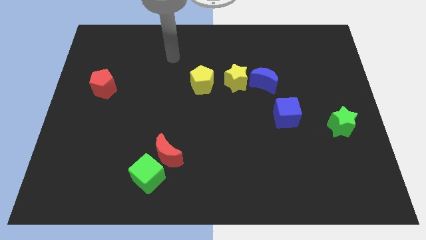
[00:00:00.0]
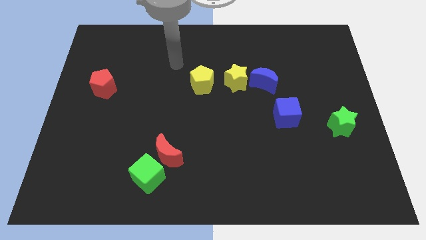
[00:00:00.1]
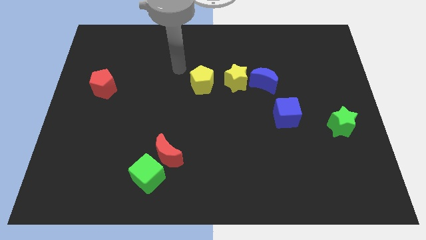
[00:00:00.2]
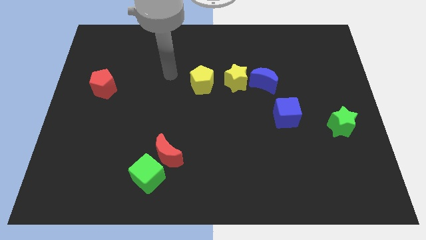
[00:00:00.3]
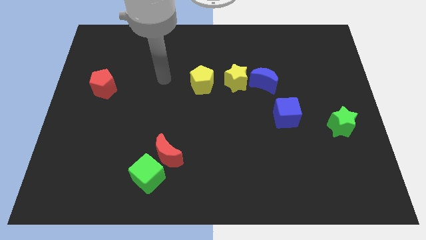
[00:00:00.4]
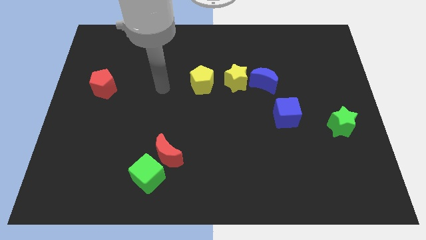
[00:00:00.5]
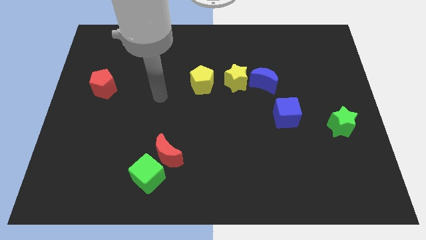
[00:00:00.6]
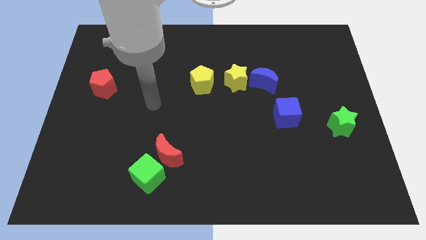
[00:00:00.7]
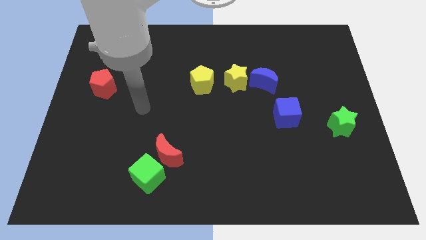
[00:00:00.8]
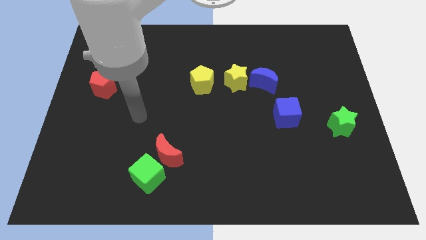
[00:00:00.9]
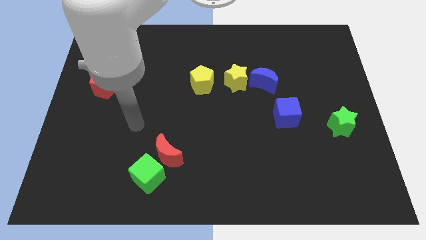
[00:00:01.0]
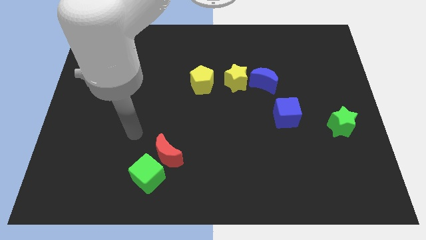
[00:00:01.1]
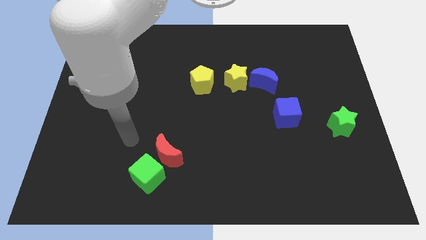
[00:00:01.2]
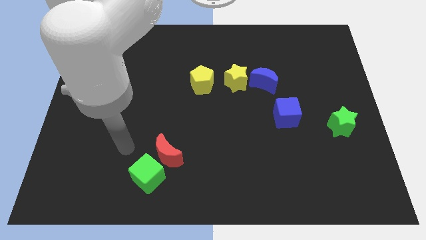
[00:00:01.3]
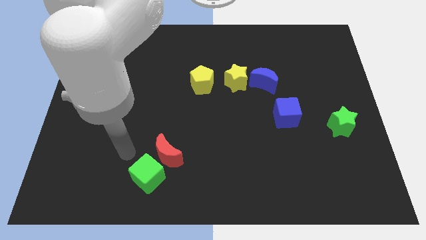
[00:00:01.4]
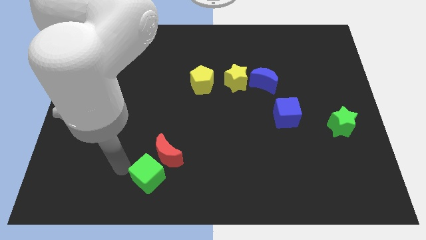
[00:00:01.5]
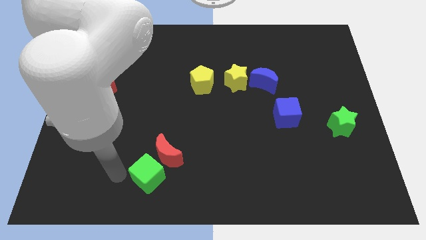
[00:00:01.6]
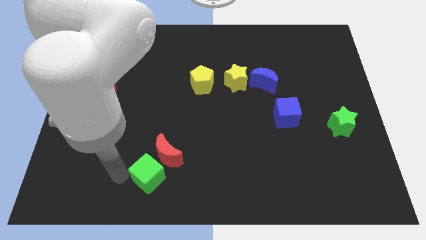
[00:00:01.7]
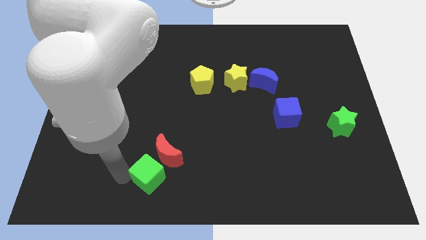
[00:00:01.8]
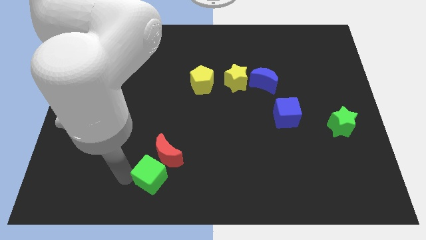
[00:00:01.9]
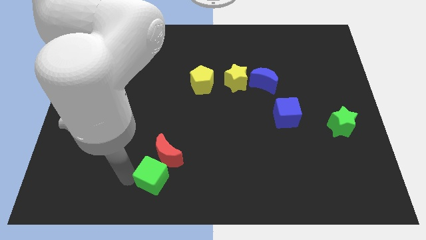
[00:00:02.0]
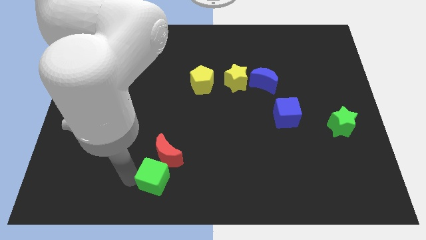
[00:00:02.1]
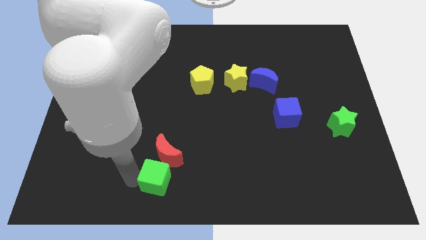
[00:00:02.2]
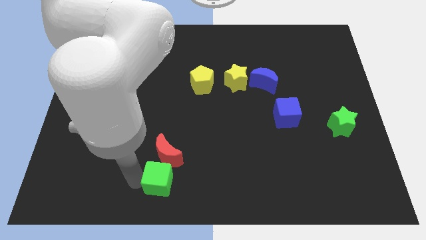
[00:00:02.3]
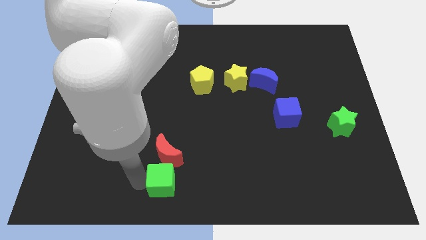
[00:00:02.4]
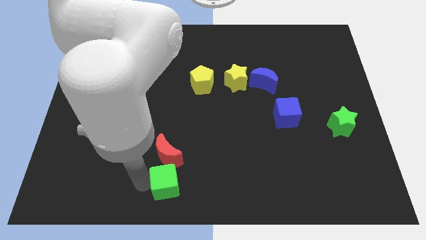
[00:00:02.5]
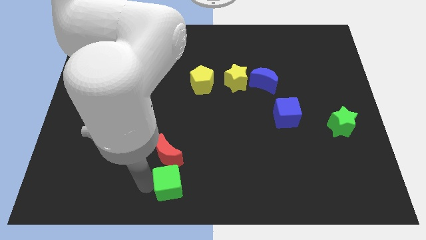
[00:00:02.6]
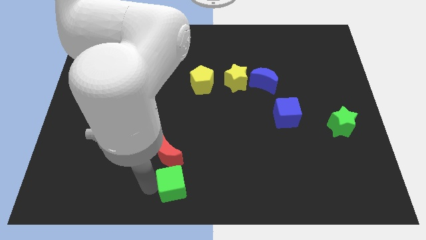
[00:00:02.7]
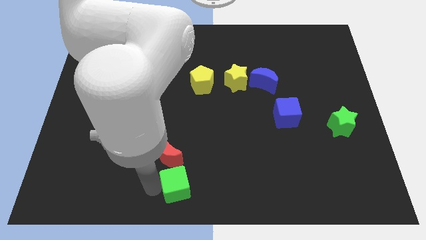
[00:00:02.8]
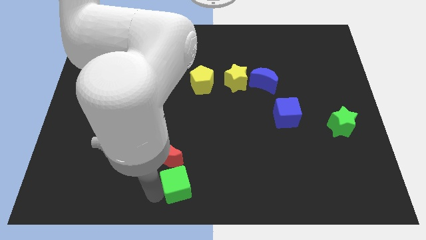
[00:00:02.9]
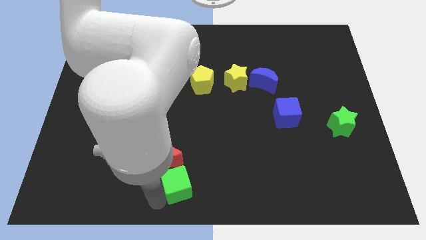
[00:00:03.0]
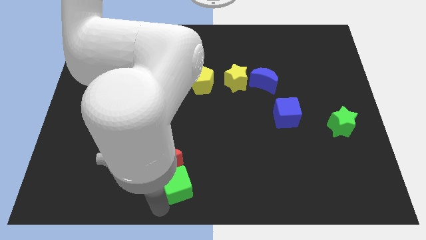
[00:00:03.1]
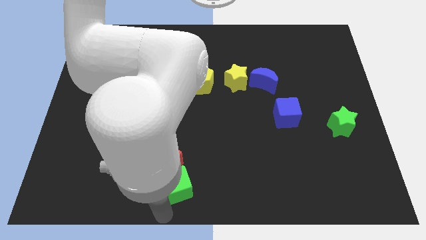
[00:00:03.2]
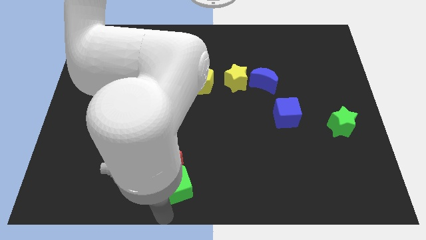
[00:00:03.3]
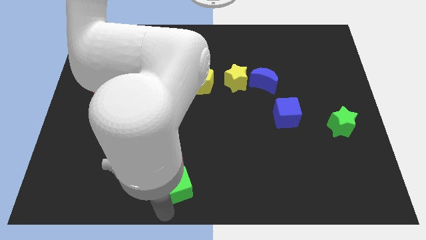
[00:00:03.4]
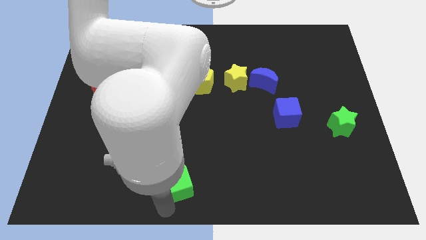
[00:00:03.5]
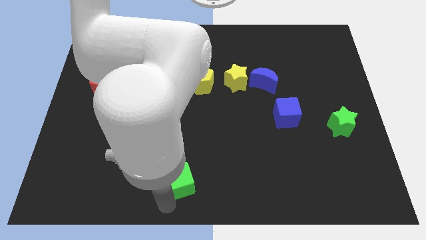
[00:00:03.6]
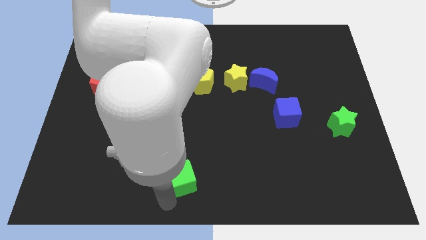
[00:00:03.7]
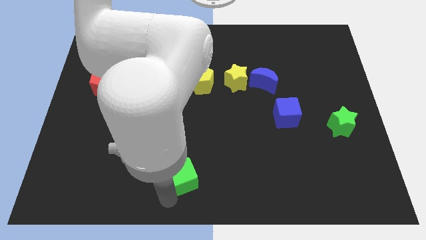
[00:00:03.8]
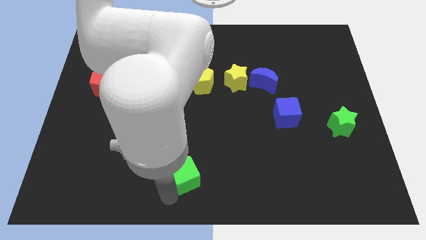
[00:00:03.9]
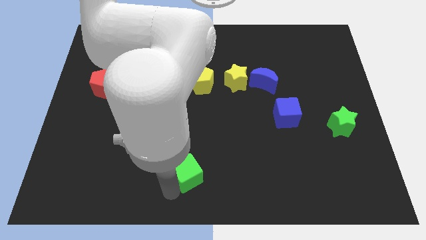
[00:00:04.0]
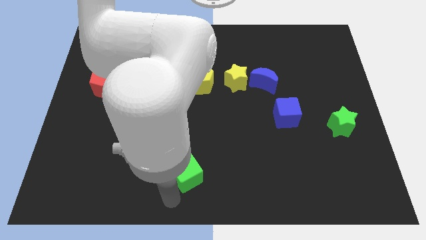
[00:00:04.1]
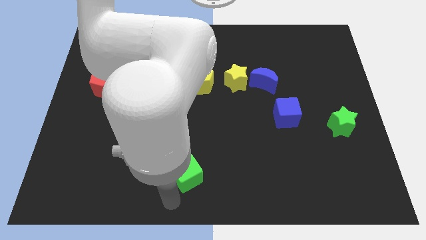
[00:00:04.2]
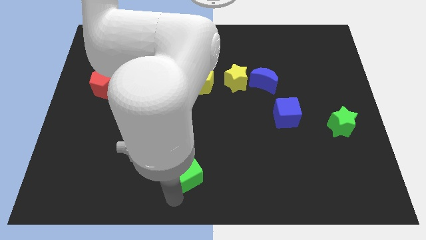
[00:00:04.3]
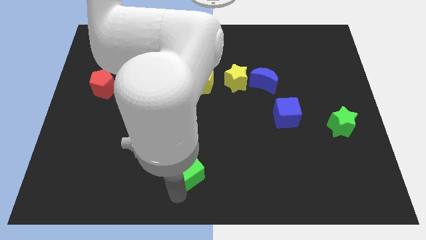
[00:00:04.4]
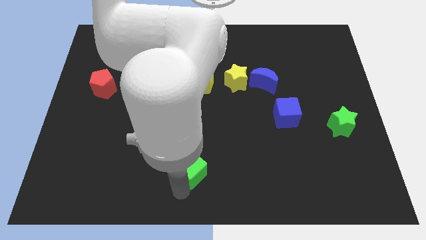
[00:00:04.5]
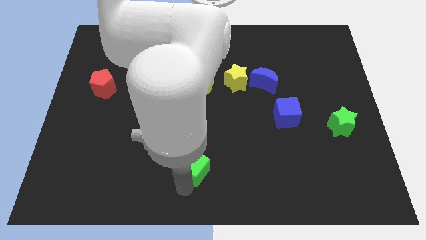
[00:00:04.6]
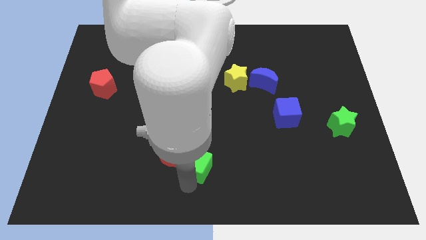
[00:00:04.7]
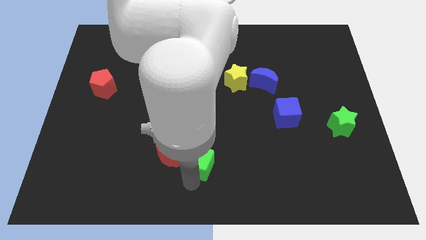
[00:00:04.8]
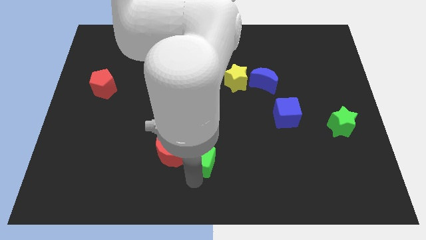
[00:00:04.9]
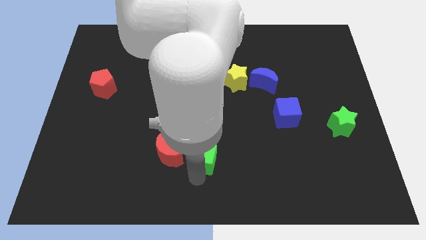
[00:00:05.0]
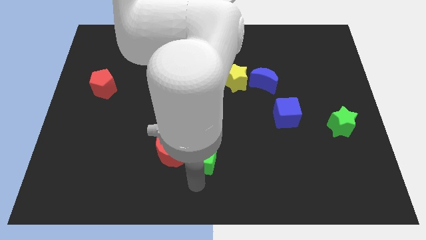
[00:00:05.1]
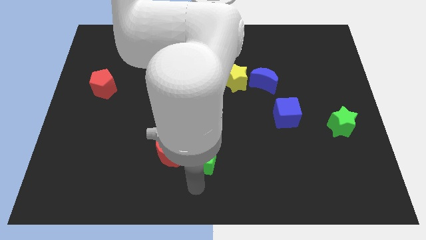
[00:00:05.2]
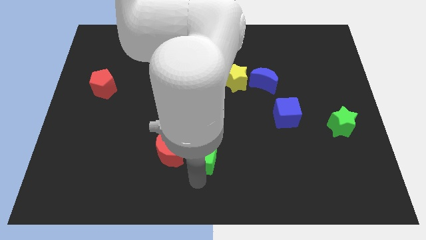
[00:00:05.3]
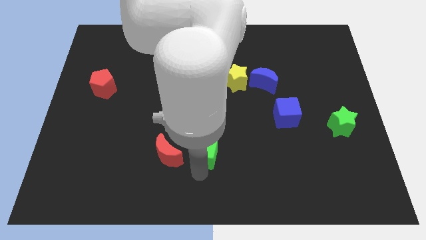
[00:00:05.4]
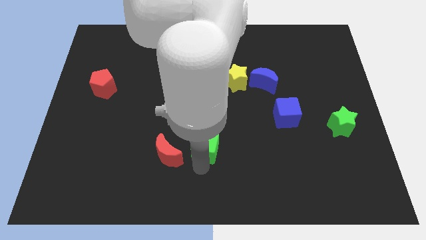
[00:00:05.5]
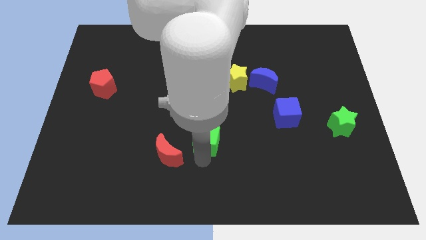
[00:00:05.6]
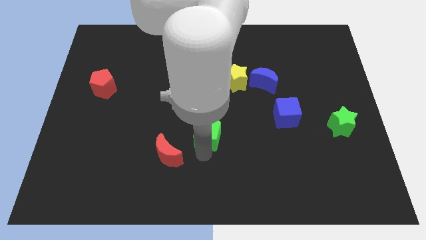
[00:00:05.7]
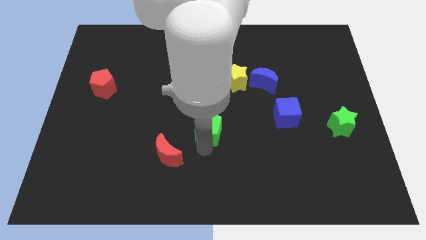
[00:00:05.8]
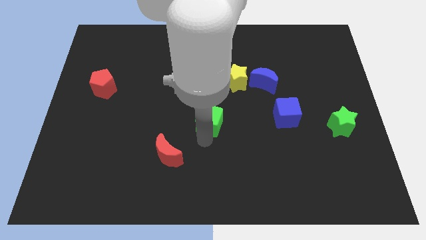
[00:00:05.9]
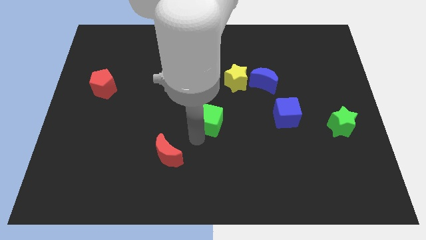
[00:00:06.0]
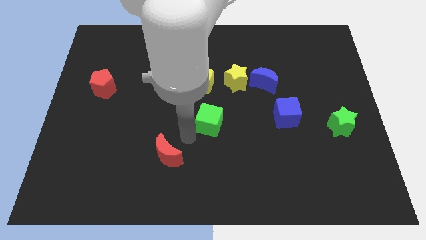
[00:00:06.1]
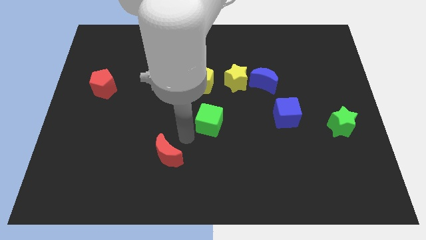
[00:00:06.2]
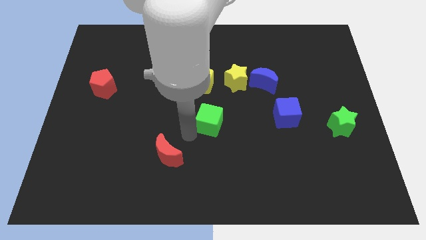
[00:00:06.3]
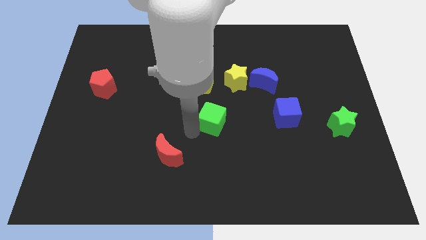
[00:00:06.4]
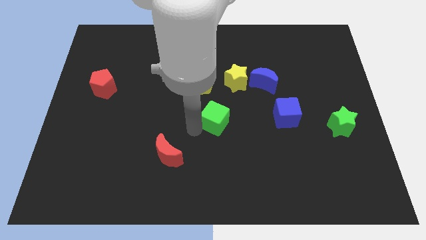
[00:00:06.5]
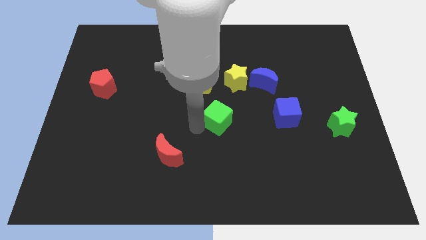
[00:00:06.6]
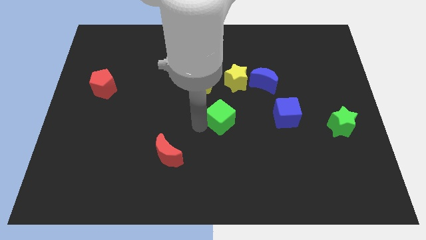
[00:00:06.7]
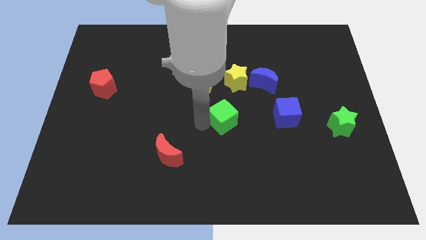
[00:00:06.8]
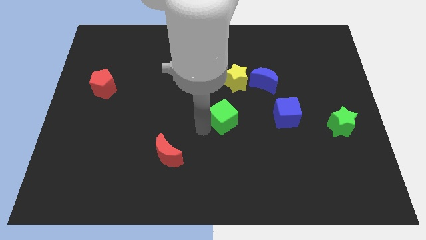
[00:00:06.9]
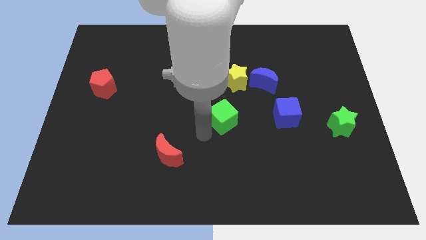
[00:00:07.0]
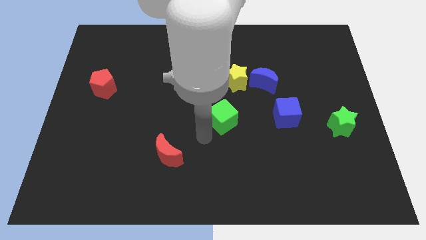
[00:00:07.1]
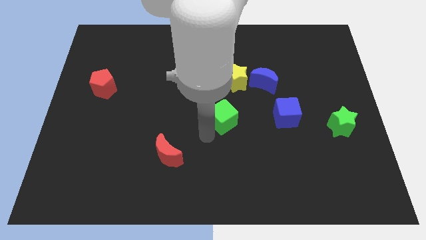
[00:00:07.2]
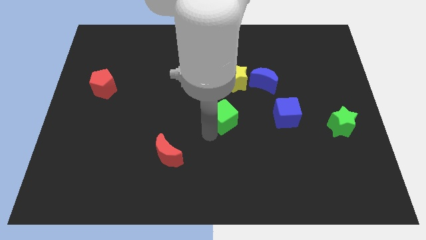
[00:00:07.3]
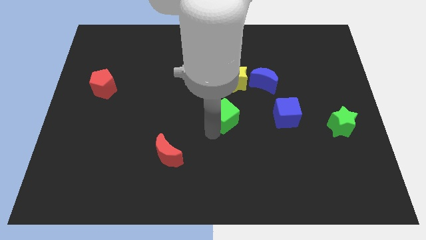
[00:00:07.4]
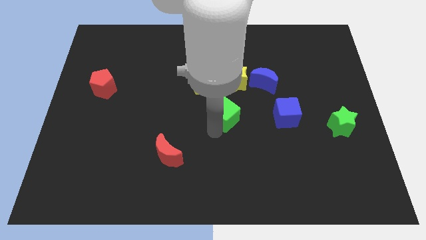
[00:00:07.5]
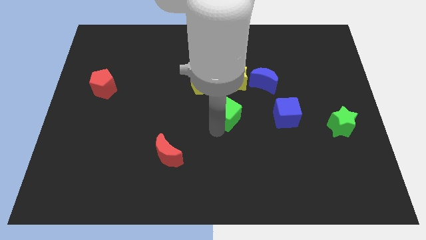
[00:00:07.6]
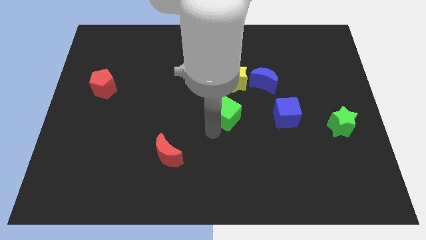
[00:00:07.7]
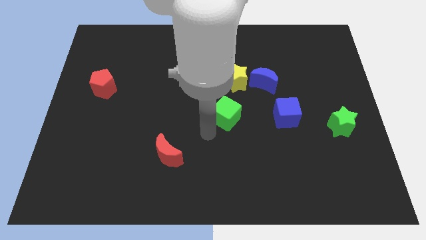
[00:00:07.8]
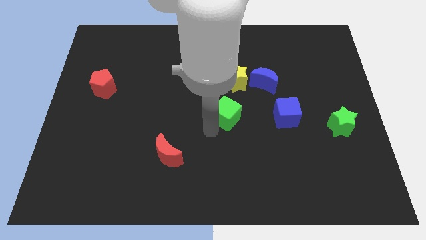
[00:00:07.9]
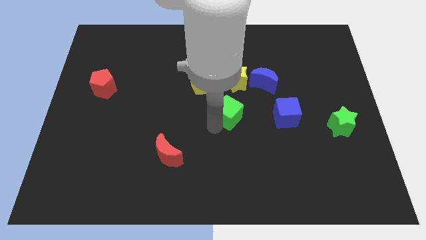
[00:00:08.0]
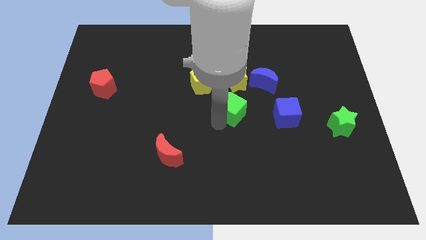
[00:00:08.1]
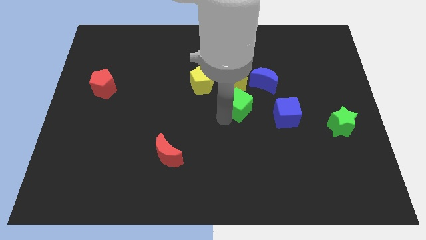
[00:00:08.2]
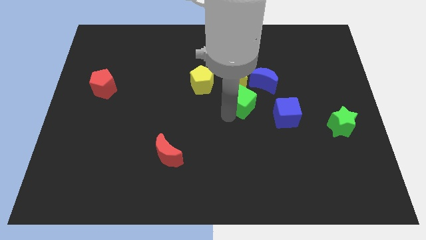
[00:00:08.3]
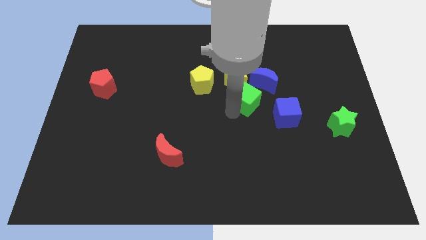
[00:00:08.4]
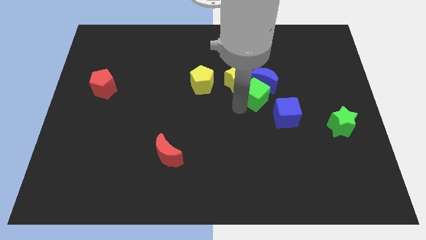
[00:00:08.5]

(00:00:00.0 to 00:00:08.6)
put the green cube next to the blue moon
